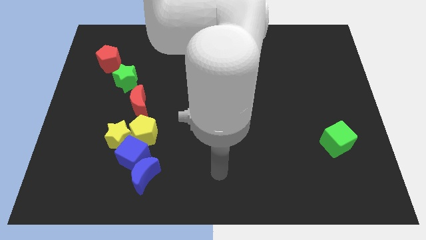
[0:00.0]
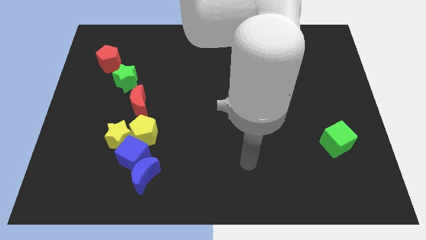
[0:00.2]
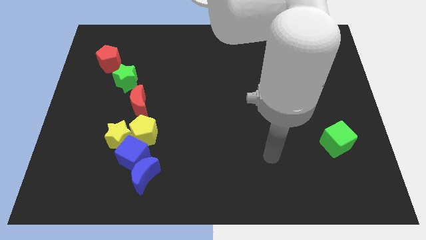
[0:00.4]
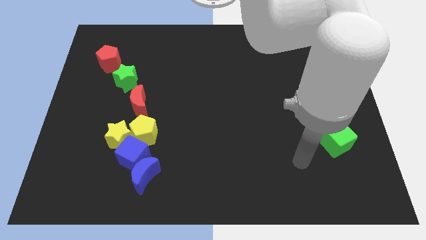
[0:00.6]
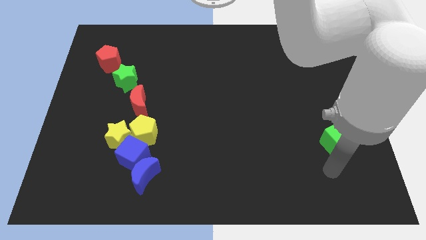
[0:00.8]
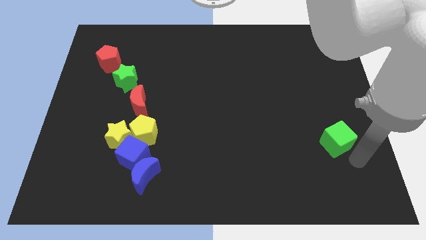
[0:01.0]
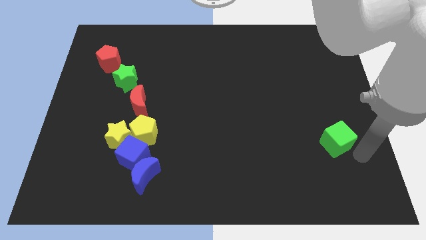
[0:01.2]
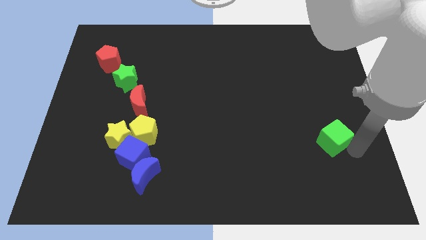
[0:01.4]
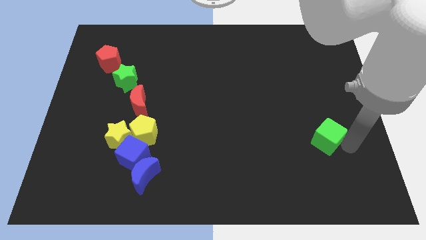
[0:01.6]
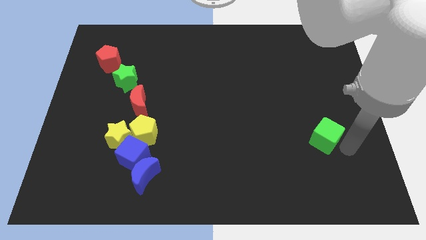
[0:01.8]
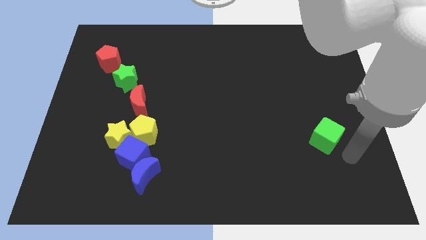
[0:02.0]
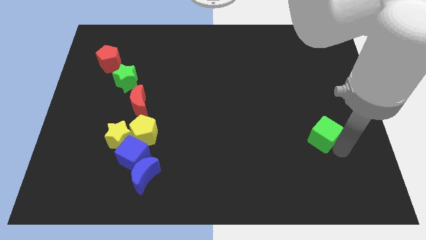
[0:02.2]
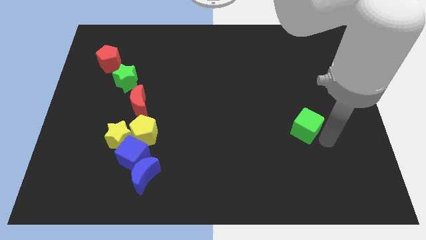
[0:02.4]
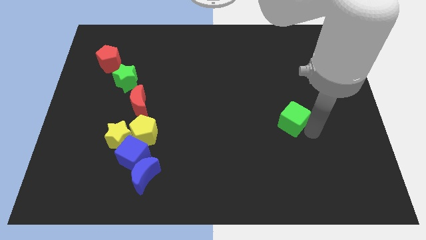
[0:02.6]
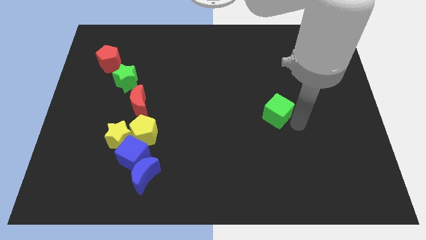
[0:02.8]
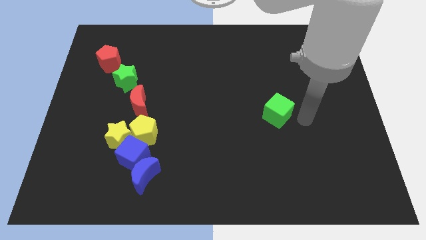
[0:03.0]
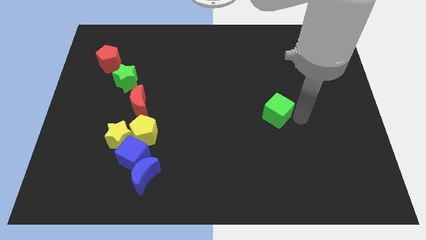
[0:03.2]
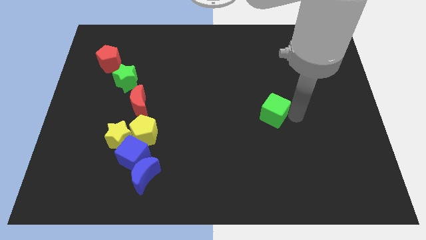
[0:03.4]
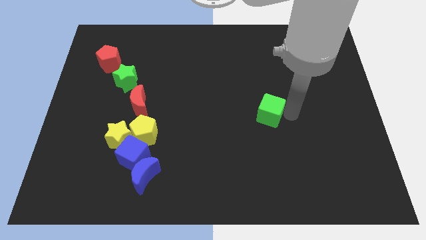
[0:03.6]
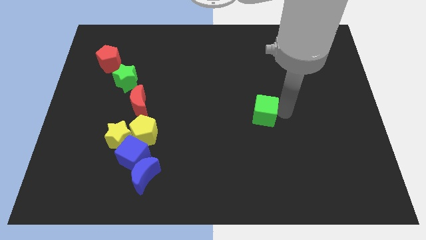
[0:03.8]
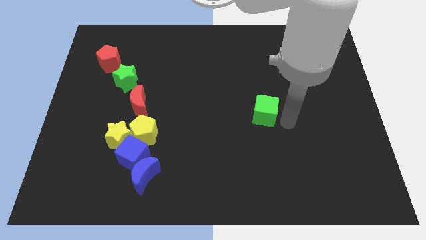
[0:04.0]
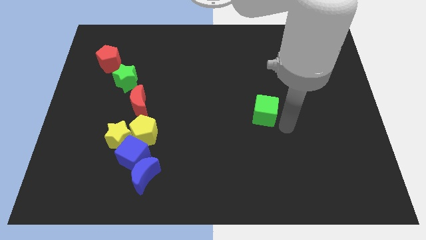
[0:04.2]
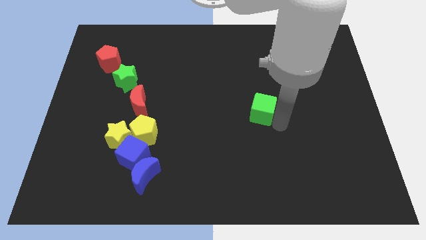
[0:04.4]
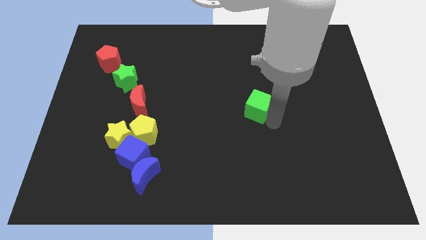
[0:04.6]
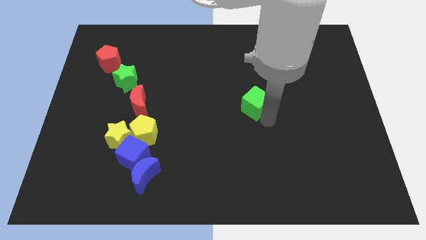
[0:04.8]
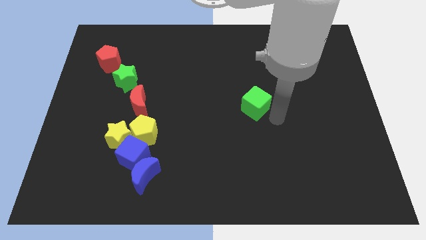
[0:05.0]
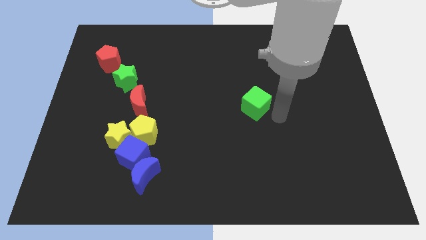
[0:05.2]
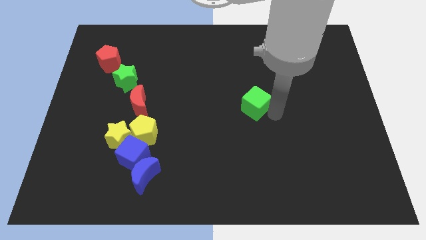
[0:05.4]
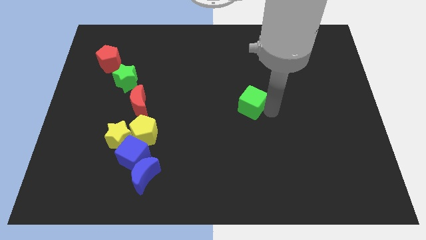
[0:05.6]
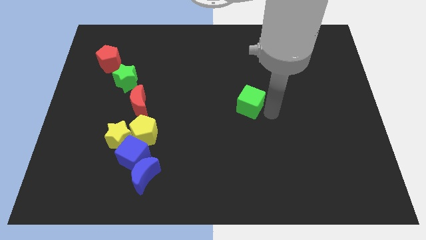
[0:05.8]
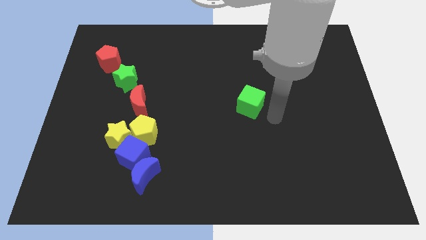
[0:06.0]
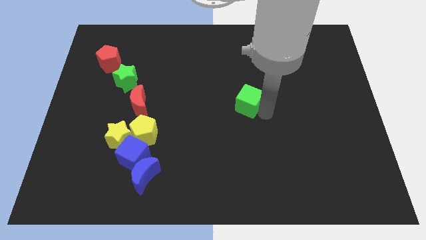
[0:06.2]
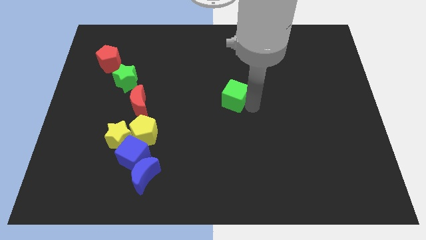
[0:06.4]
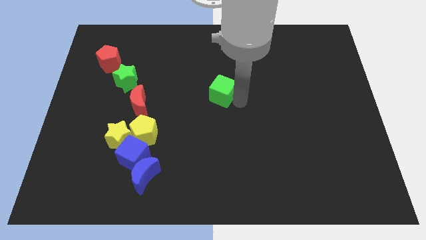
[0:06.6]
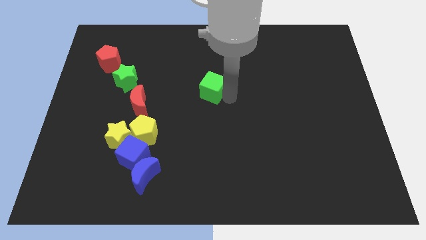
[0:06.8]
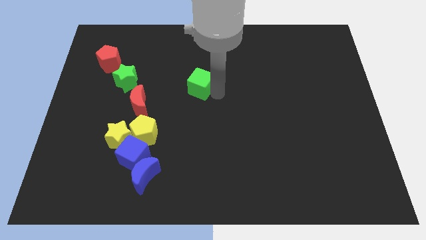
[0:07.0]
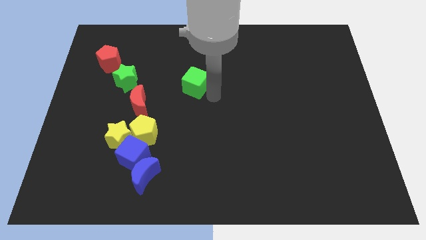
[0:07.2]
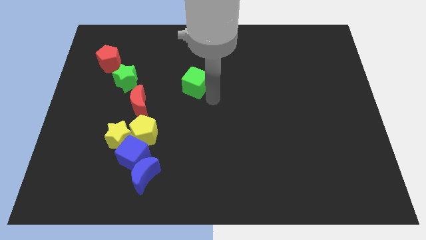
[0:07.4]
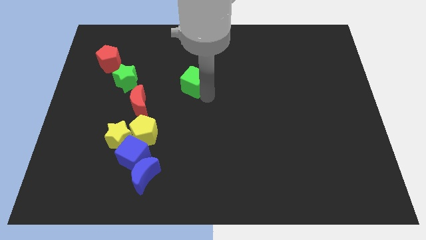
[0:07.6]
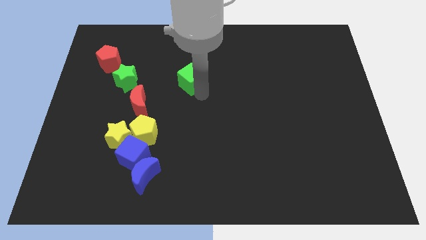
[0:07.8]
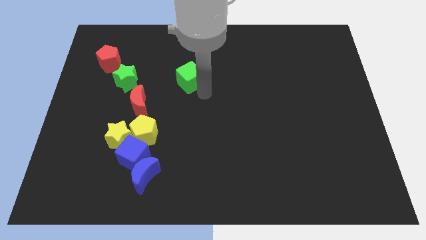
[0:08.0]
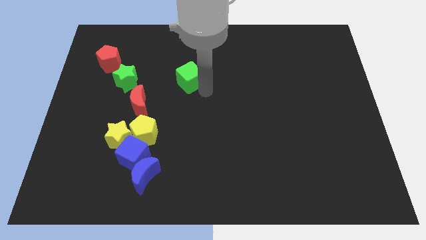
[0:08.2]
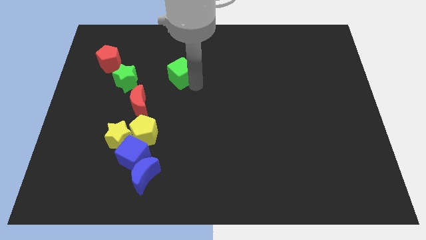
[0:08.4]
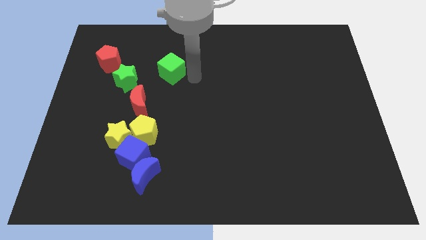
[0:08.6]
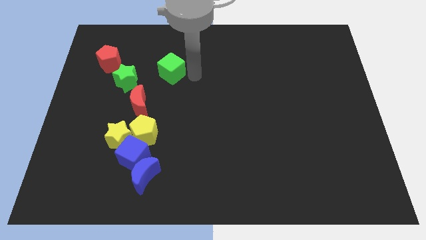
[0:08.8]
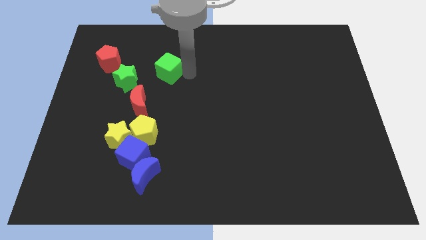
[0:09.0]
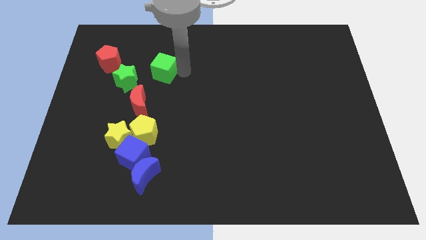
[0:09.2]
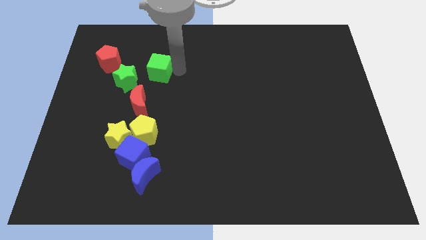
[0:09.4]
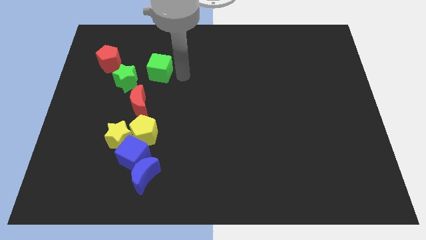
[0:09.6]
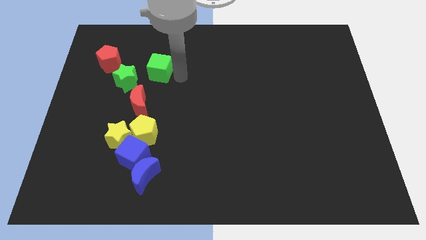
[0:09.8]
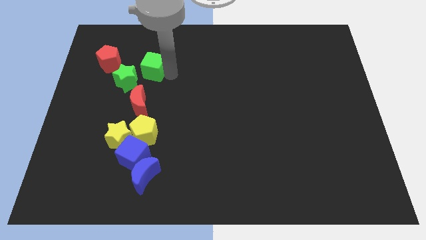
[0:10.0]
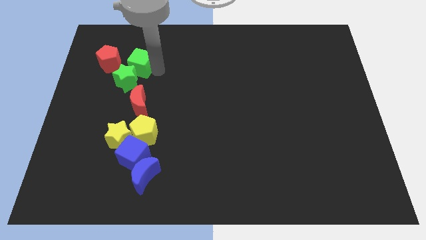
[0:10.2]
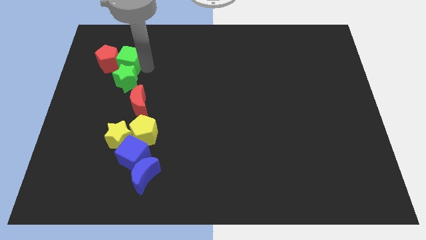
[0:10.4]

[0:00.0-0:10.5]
put the green cube close to the red pentagon
